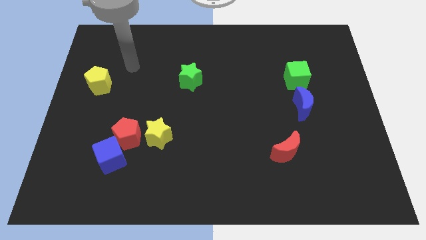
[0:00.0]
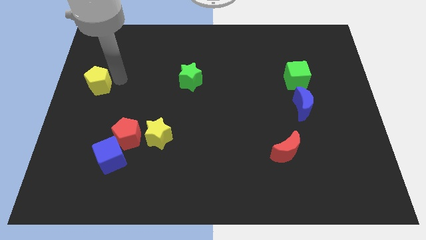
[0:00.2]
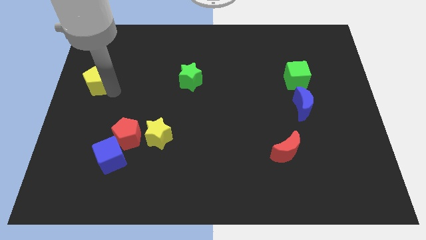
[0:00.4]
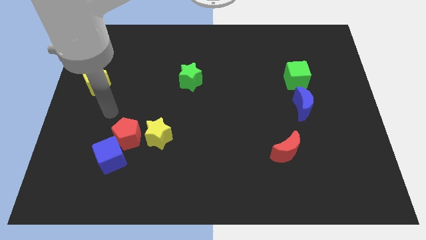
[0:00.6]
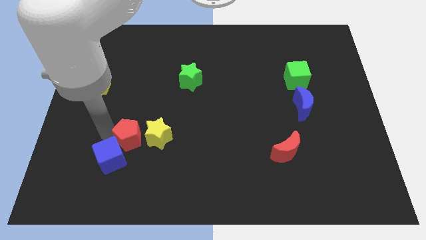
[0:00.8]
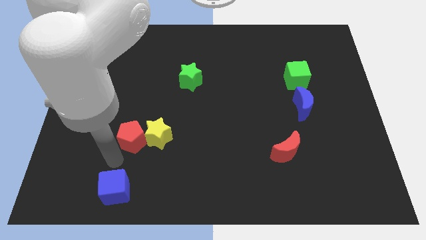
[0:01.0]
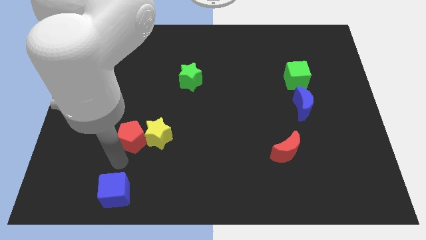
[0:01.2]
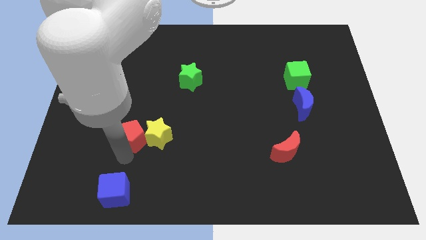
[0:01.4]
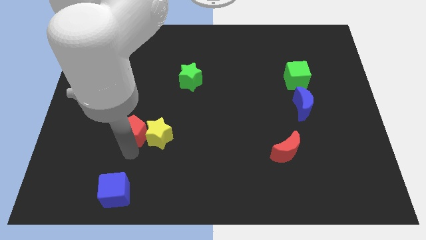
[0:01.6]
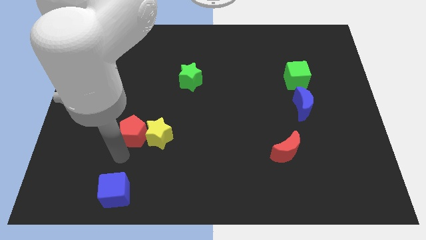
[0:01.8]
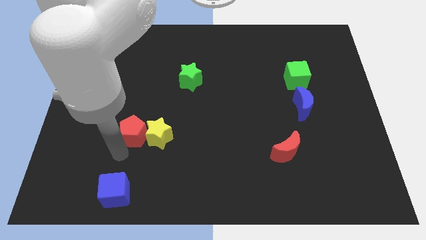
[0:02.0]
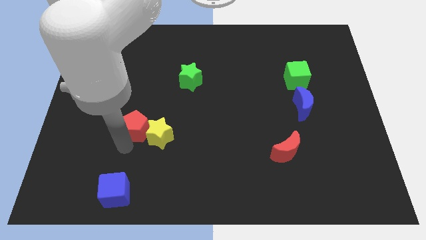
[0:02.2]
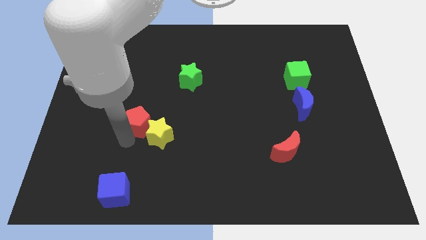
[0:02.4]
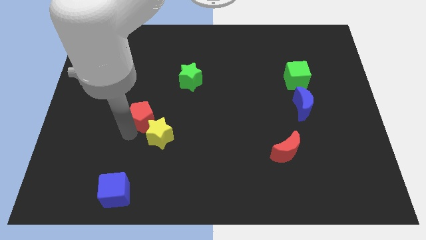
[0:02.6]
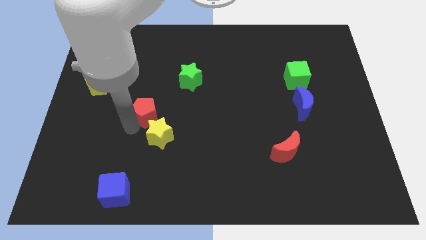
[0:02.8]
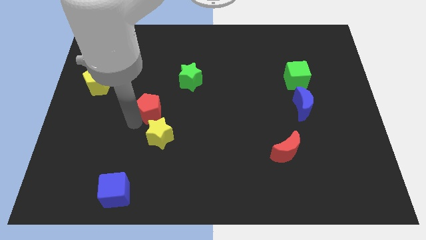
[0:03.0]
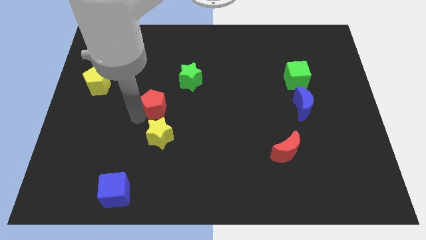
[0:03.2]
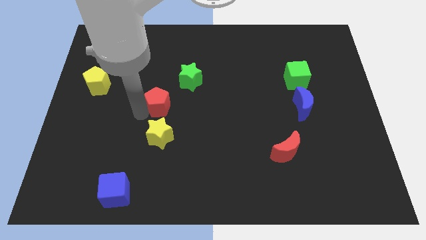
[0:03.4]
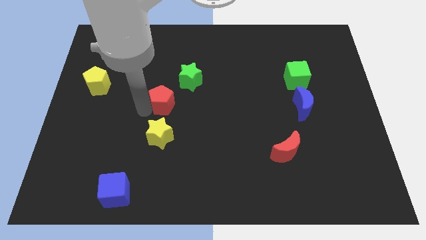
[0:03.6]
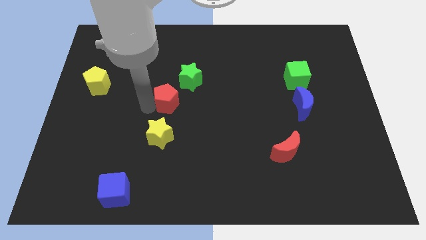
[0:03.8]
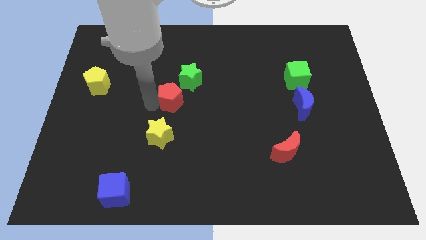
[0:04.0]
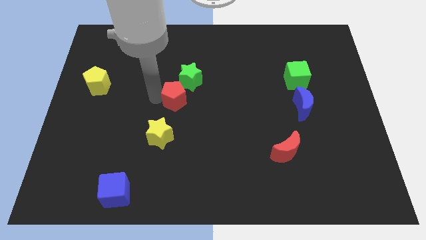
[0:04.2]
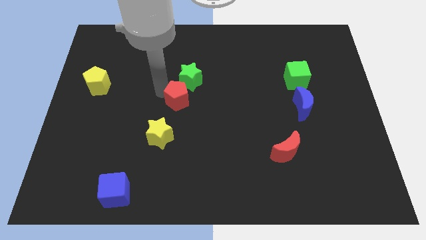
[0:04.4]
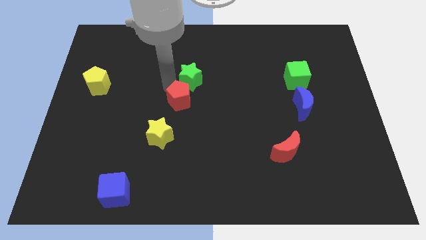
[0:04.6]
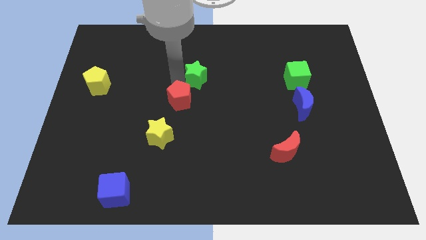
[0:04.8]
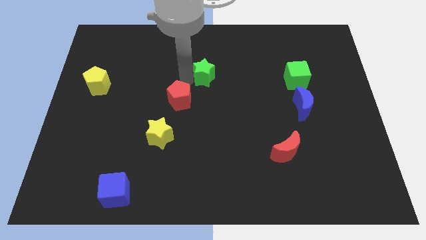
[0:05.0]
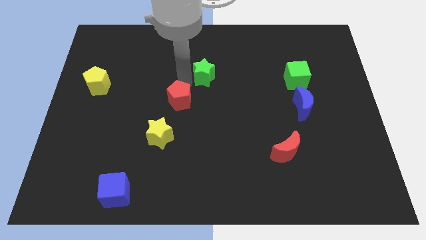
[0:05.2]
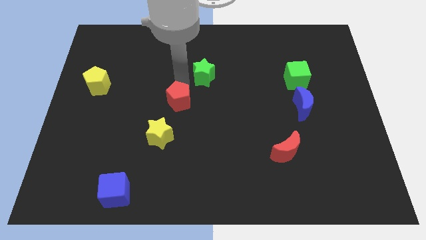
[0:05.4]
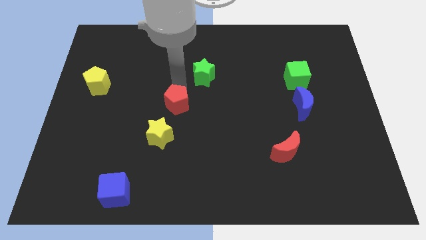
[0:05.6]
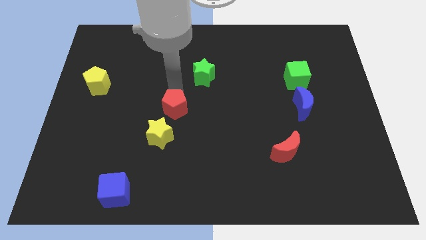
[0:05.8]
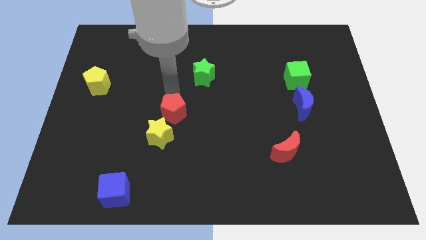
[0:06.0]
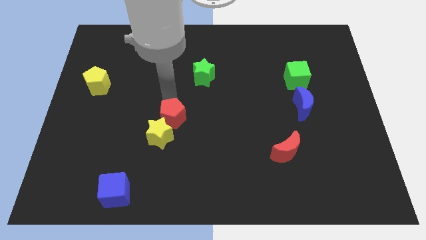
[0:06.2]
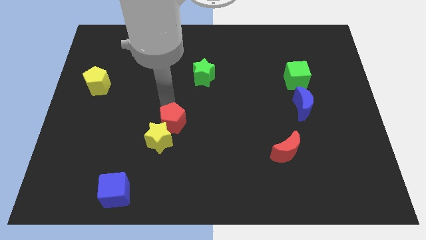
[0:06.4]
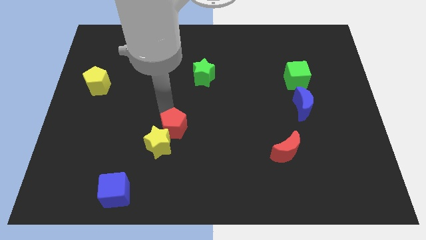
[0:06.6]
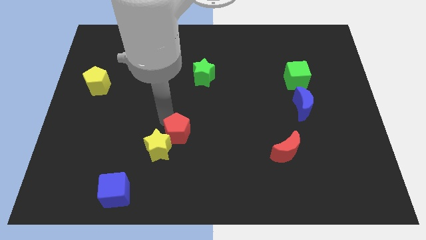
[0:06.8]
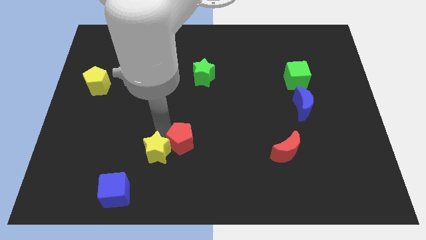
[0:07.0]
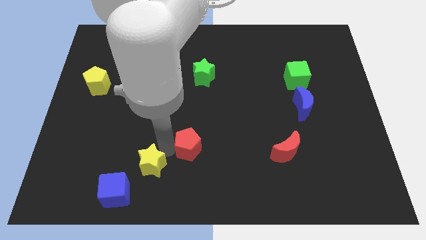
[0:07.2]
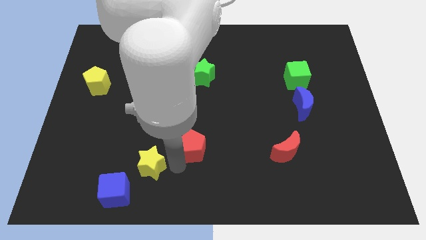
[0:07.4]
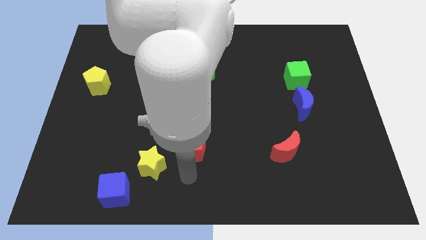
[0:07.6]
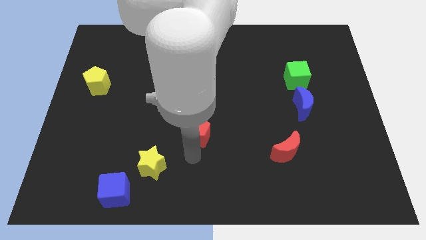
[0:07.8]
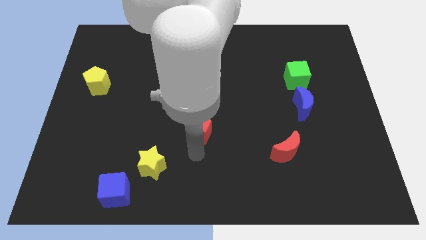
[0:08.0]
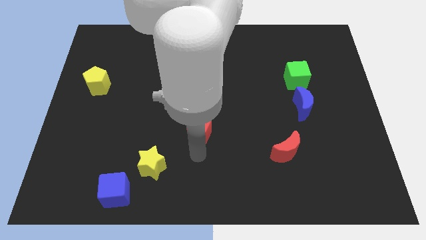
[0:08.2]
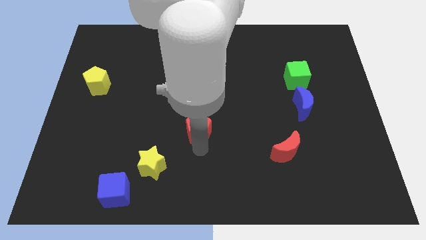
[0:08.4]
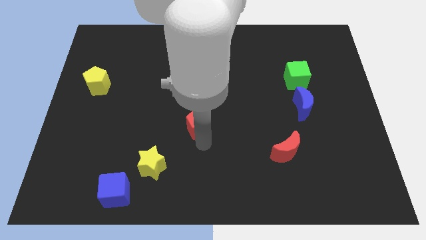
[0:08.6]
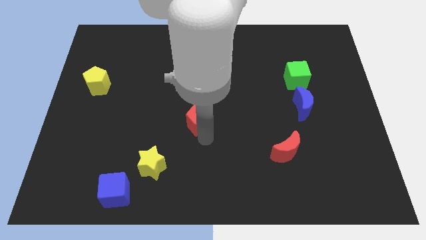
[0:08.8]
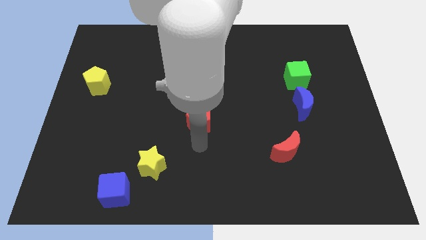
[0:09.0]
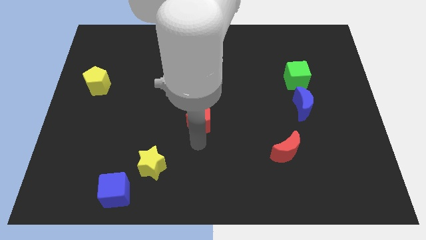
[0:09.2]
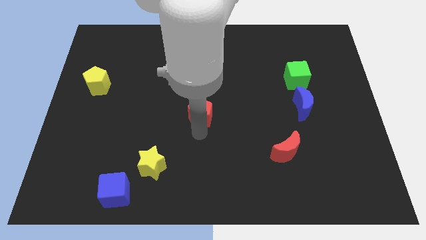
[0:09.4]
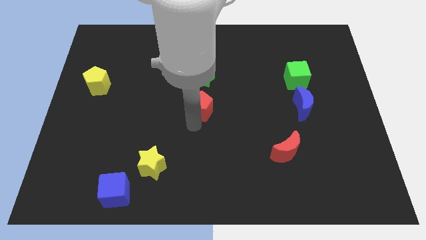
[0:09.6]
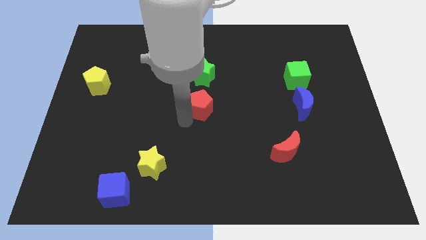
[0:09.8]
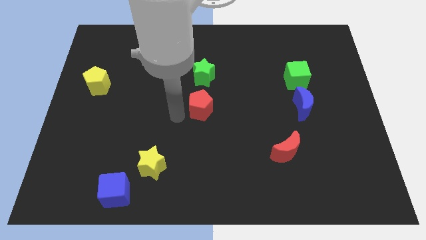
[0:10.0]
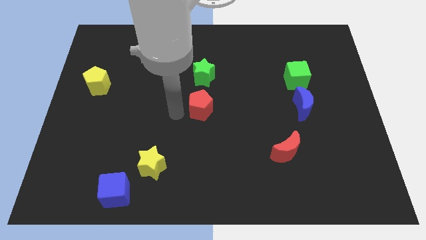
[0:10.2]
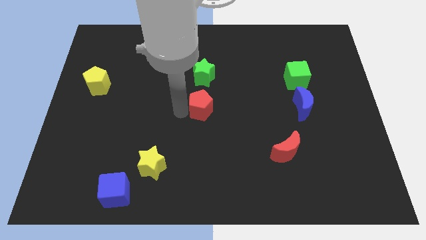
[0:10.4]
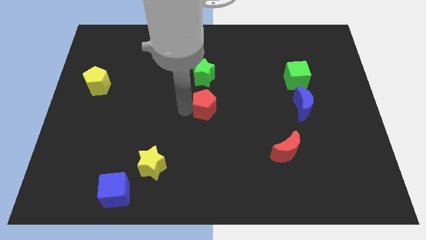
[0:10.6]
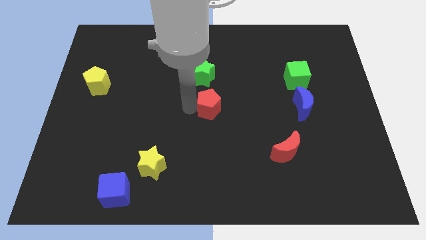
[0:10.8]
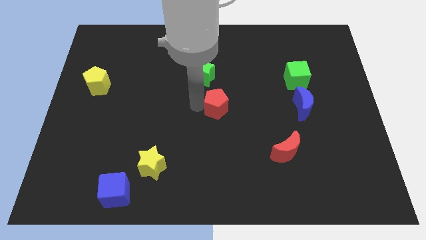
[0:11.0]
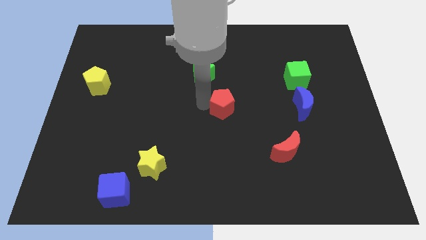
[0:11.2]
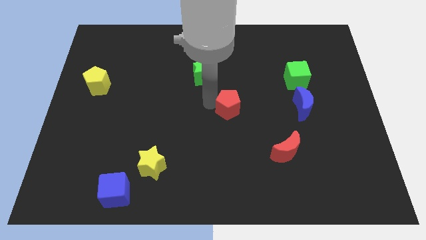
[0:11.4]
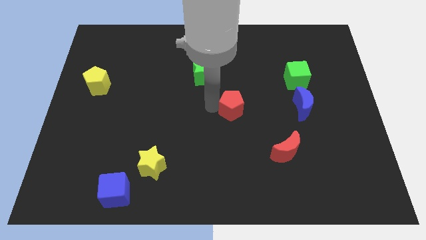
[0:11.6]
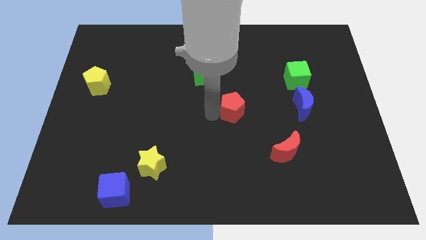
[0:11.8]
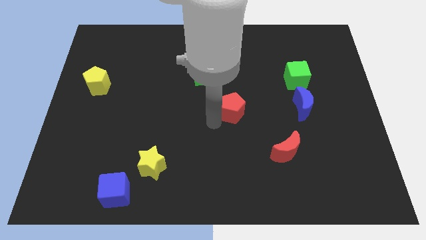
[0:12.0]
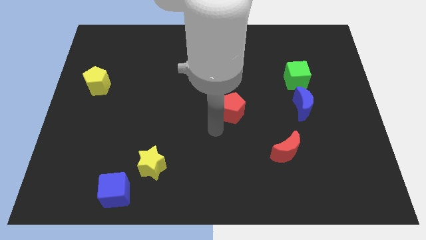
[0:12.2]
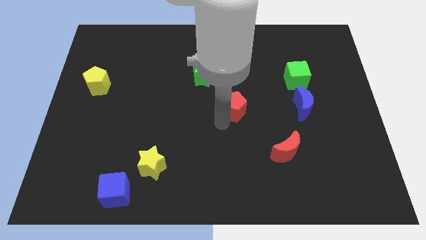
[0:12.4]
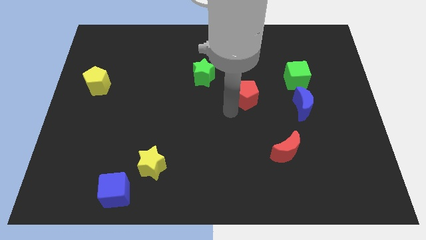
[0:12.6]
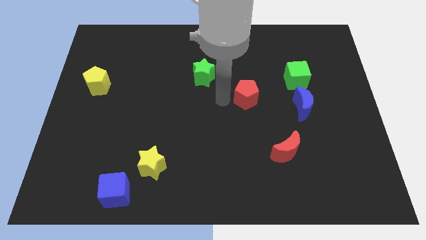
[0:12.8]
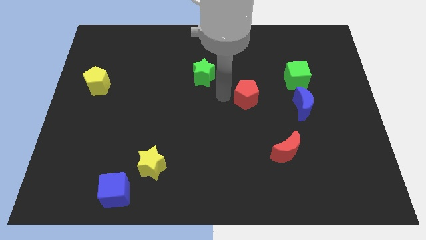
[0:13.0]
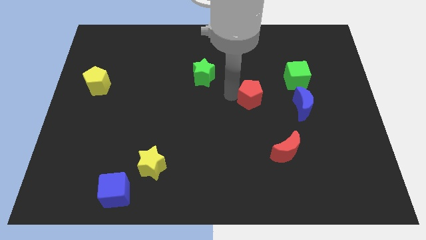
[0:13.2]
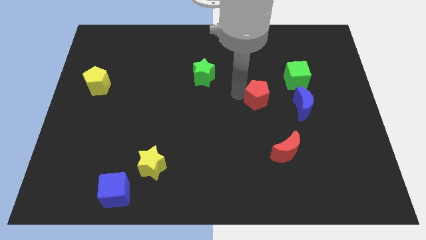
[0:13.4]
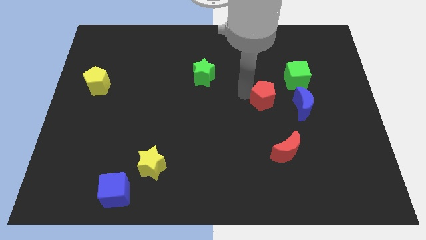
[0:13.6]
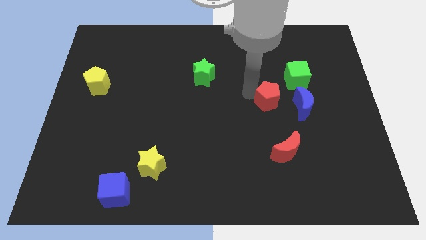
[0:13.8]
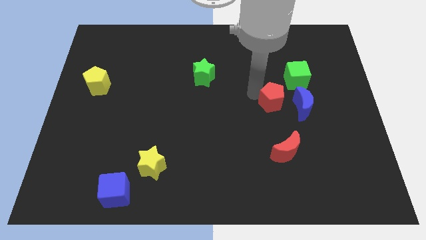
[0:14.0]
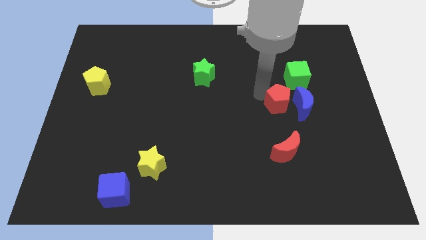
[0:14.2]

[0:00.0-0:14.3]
move the red pentagon close to the blue moon

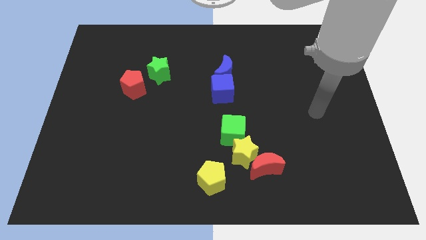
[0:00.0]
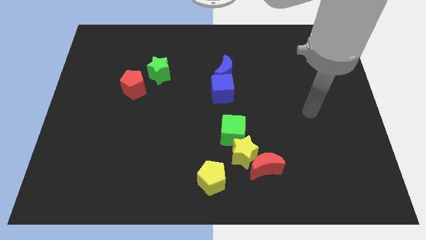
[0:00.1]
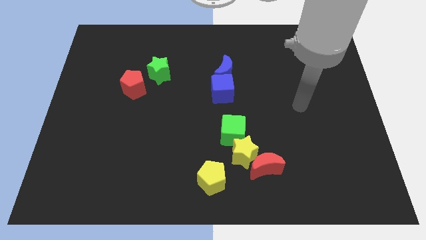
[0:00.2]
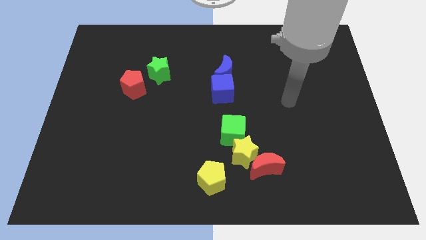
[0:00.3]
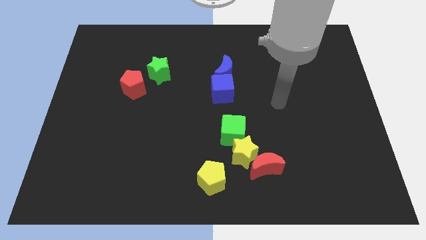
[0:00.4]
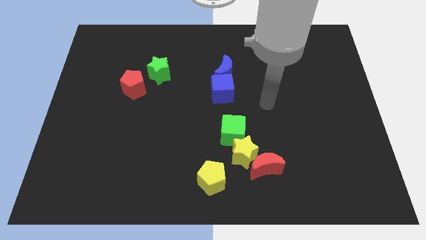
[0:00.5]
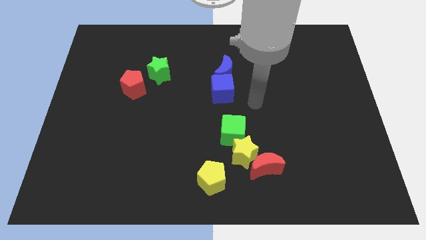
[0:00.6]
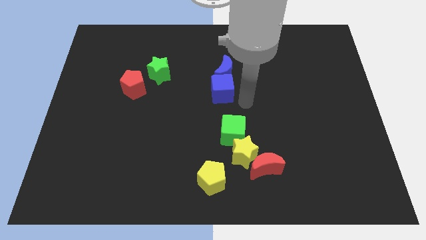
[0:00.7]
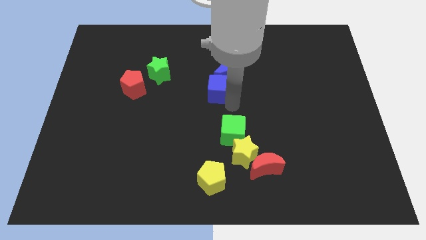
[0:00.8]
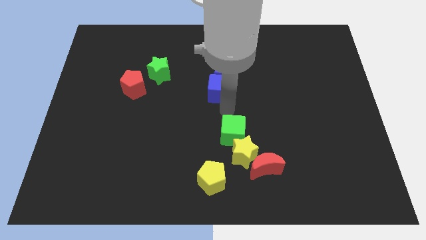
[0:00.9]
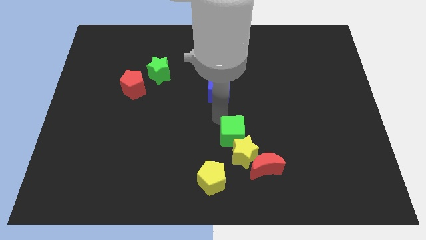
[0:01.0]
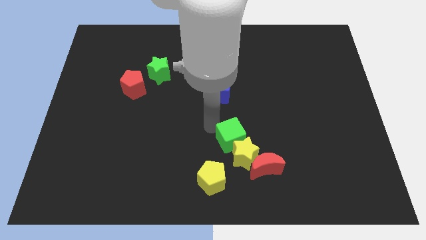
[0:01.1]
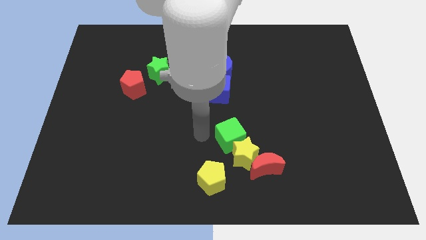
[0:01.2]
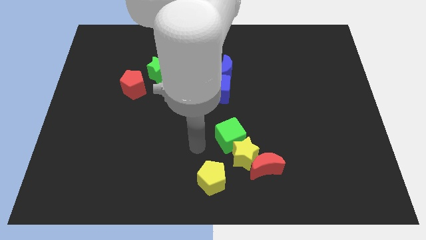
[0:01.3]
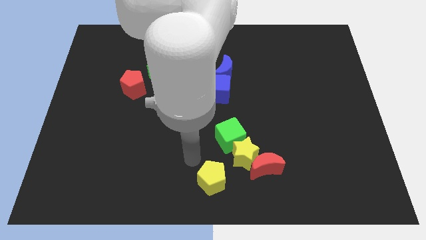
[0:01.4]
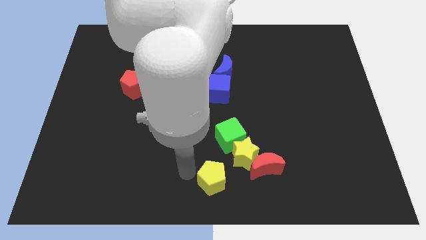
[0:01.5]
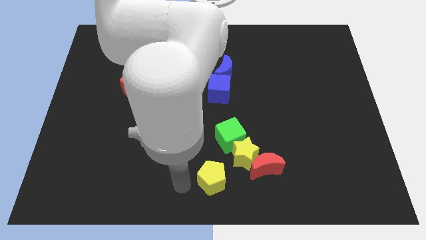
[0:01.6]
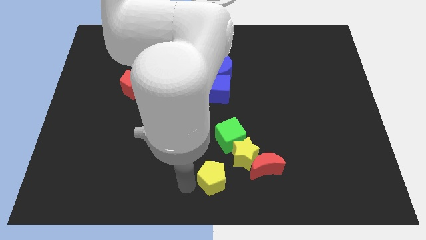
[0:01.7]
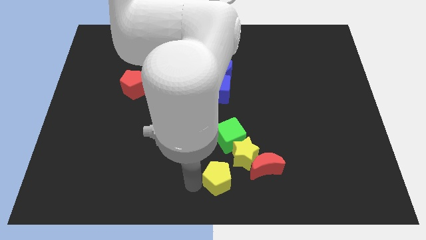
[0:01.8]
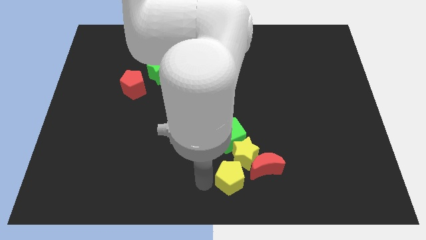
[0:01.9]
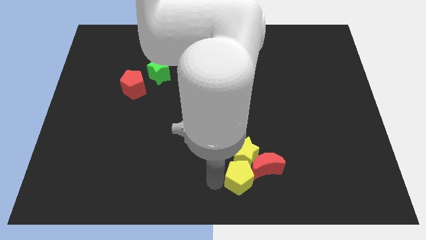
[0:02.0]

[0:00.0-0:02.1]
push the yellow pentagon towards the red moon
